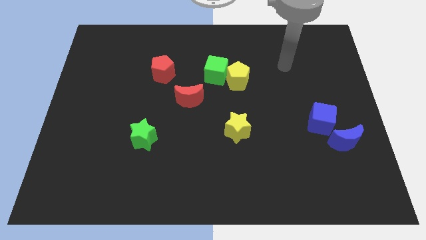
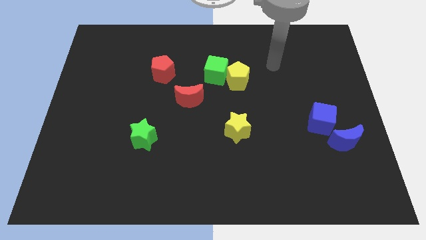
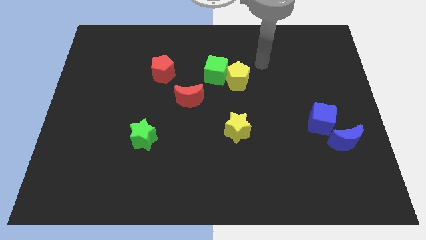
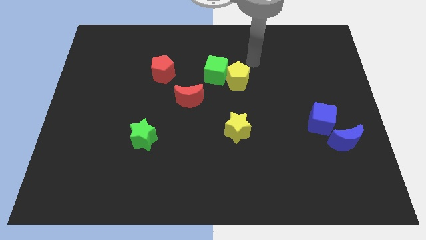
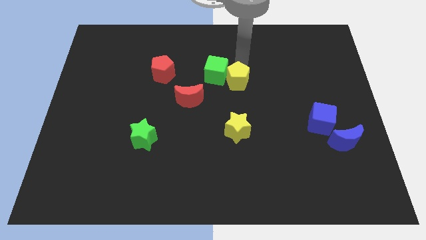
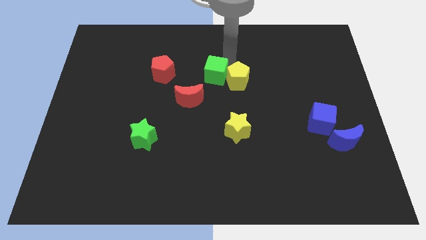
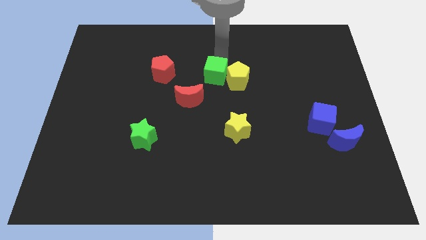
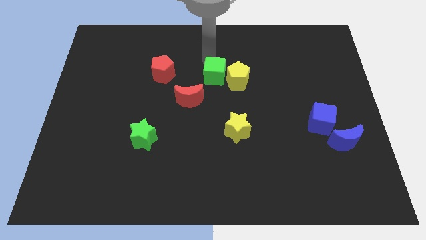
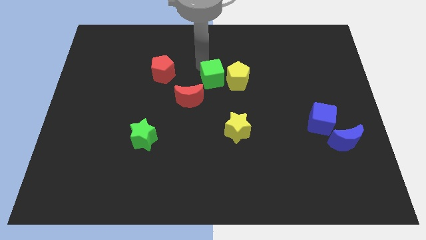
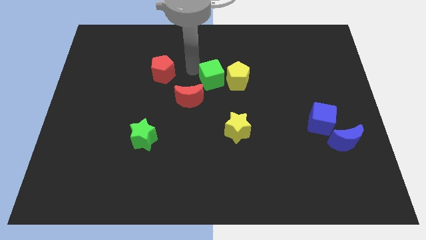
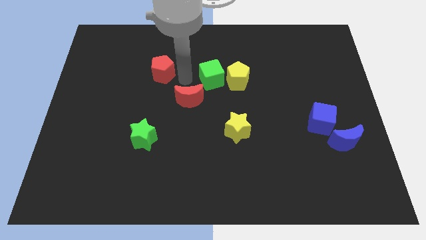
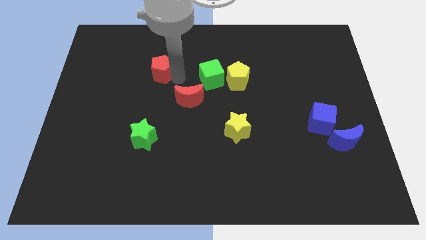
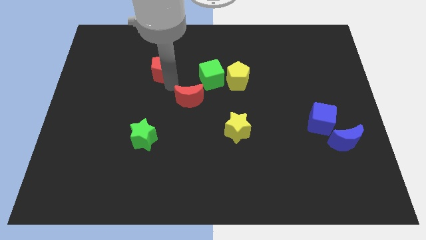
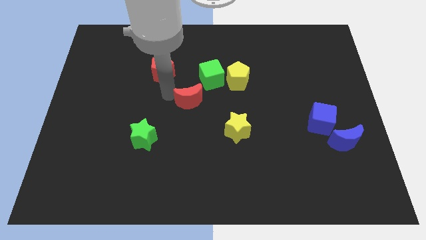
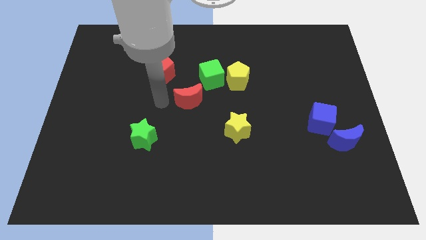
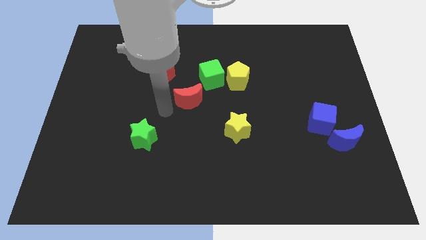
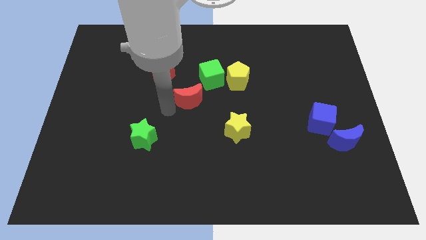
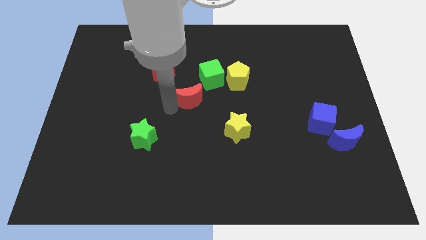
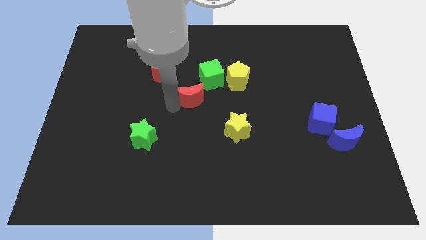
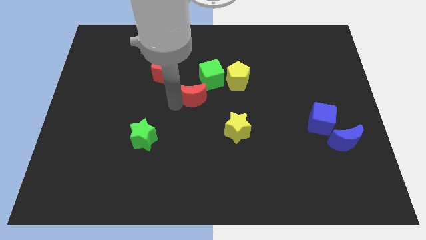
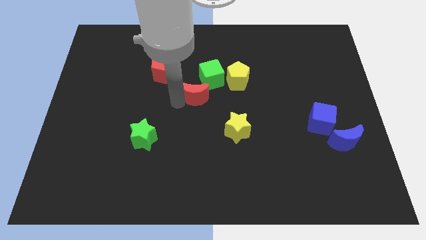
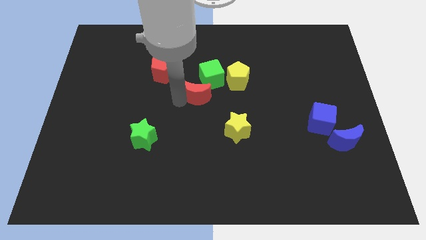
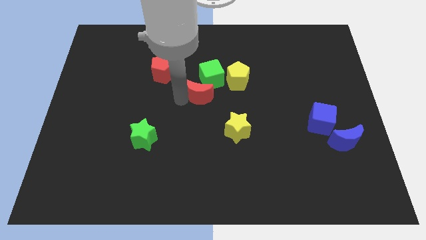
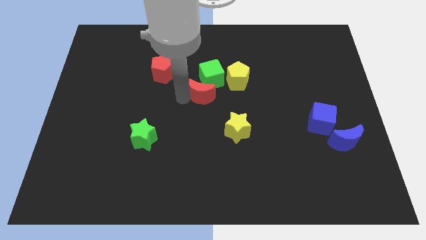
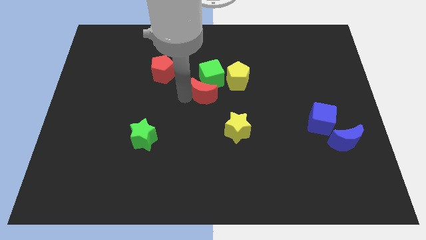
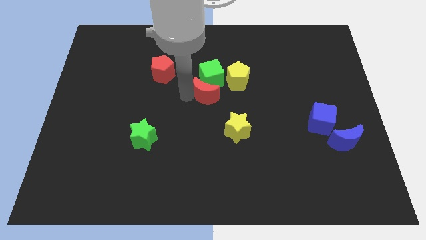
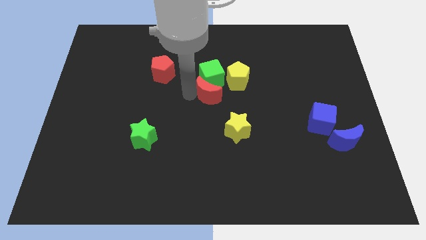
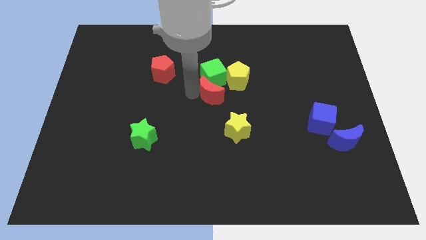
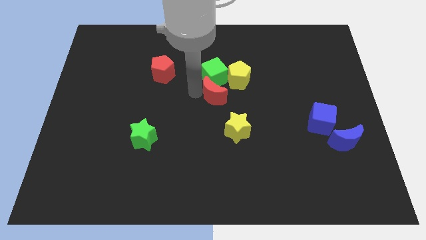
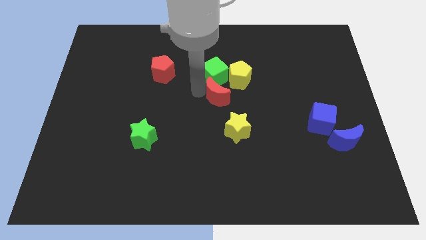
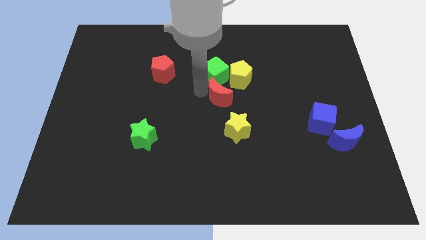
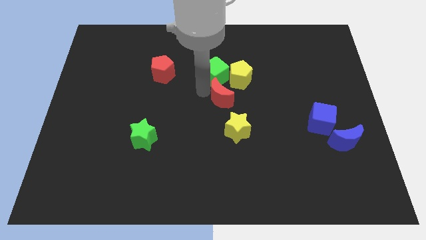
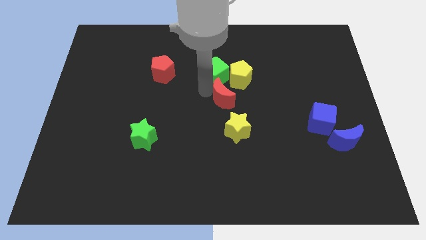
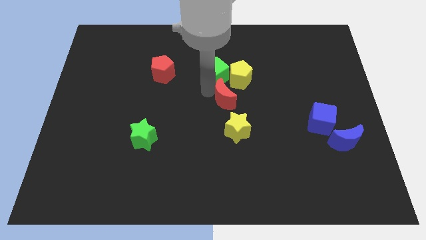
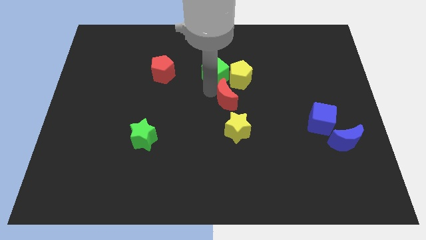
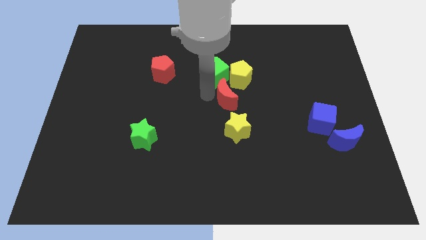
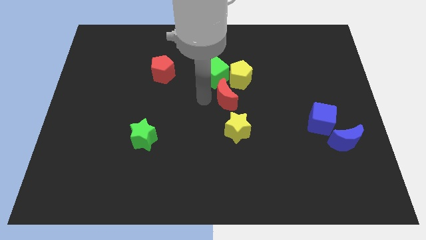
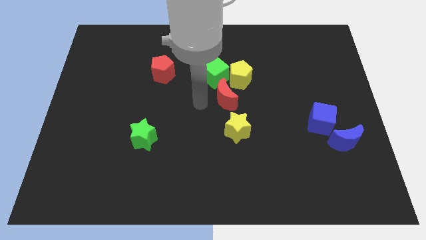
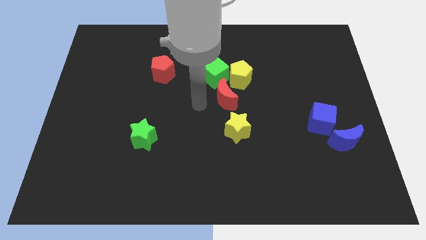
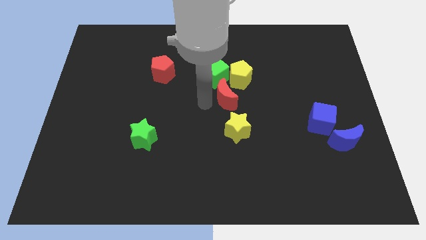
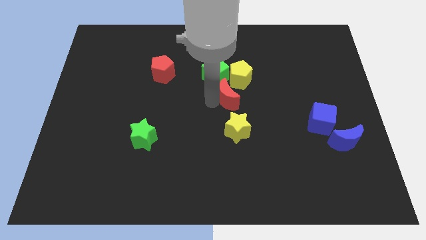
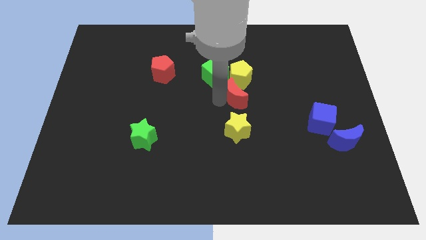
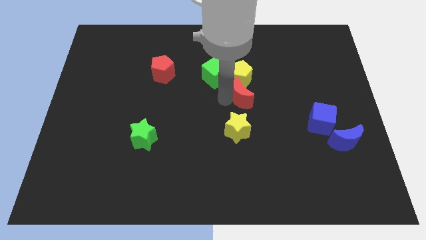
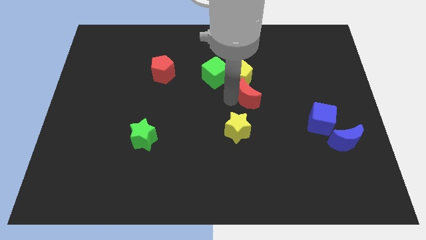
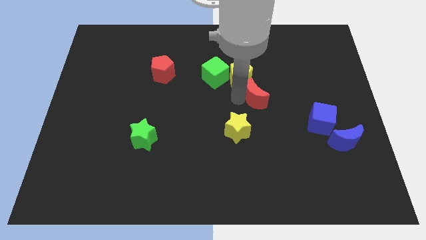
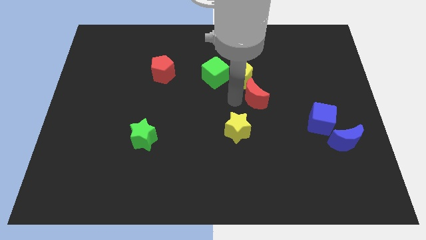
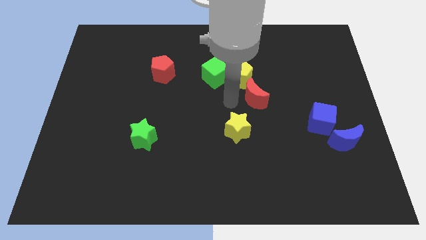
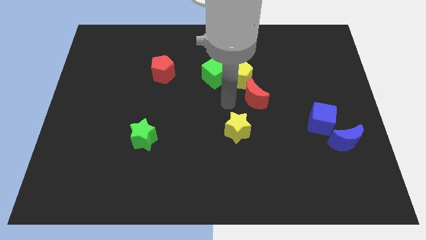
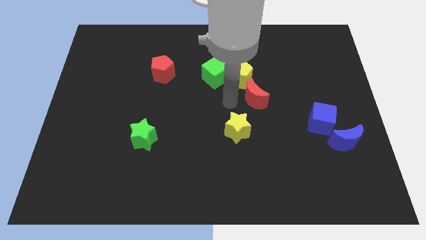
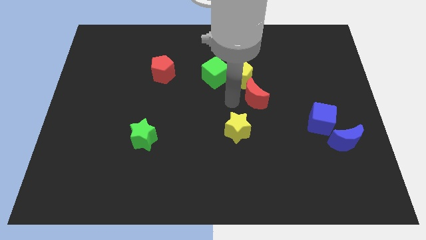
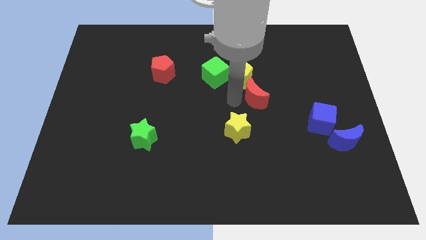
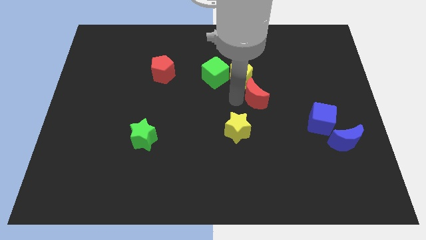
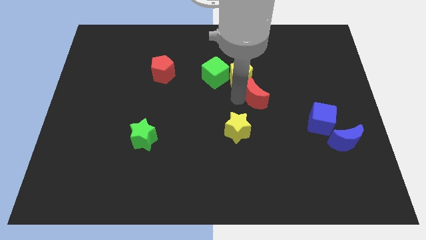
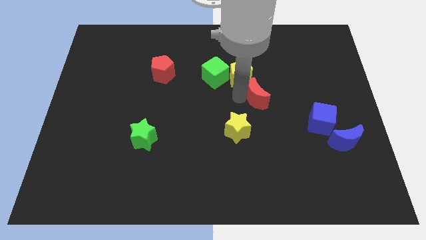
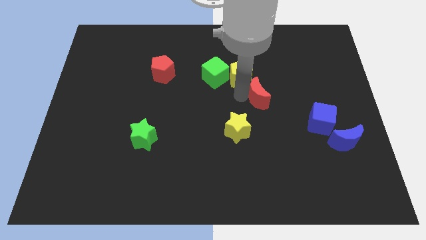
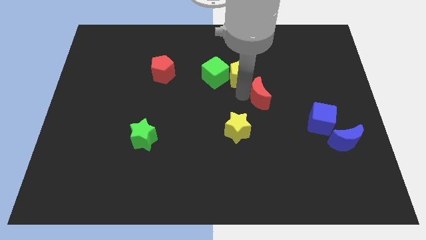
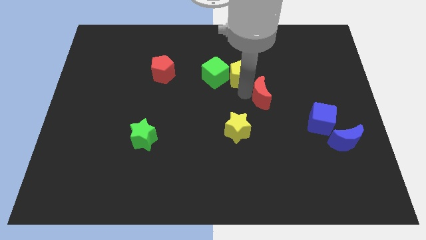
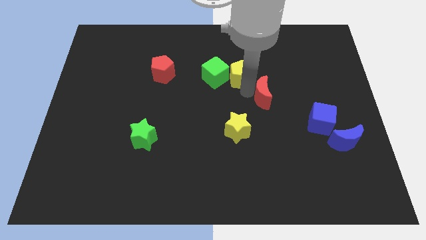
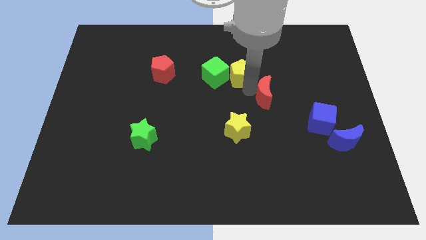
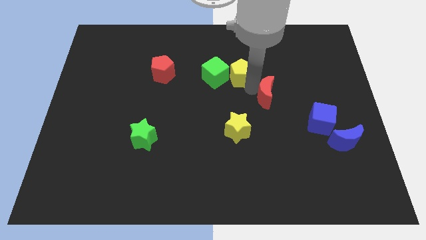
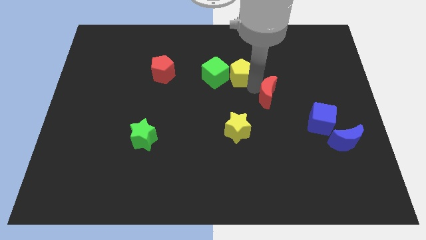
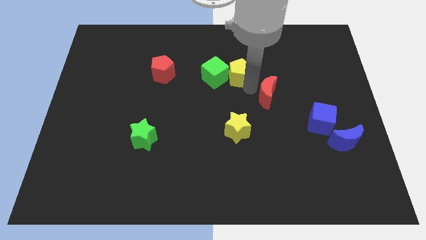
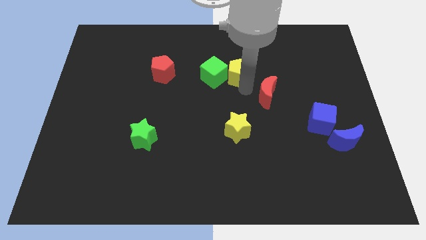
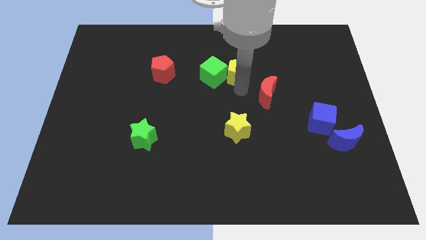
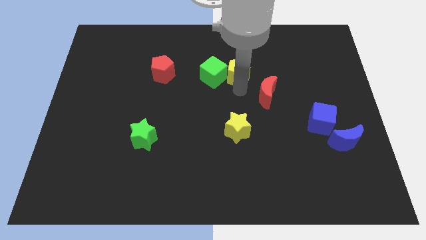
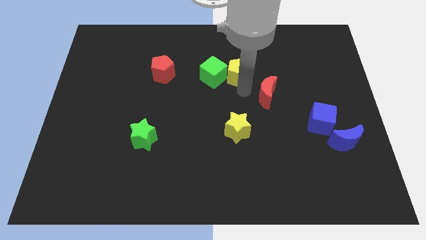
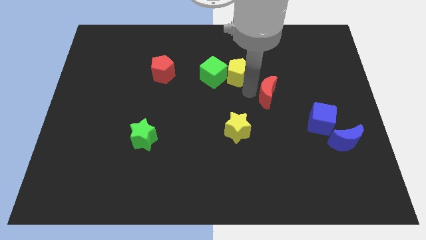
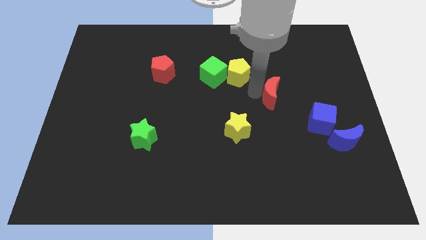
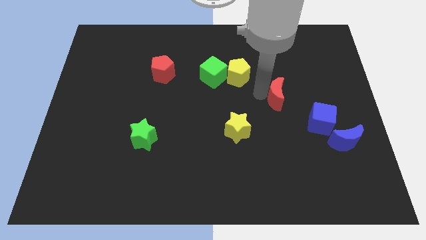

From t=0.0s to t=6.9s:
slide the red moon right

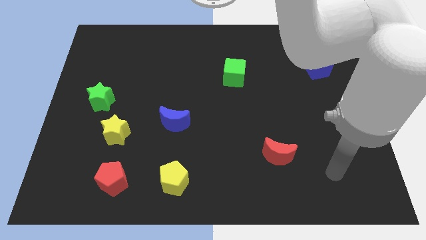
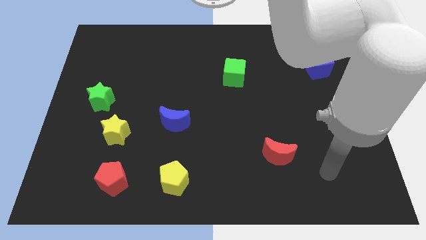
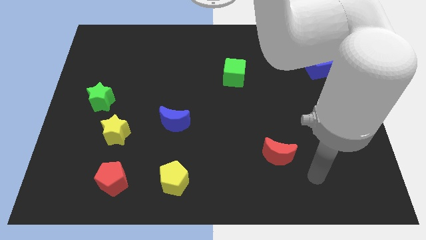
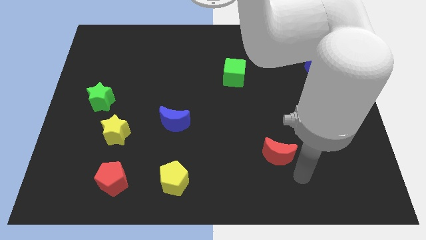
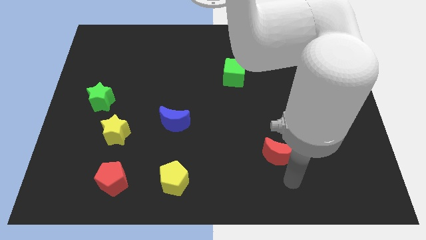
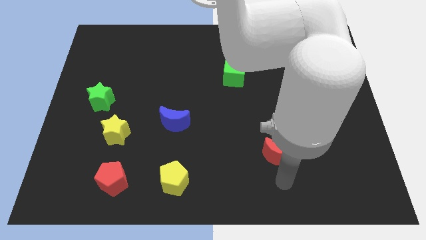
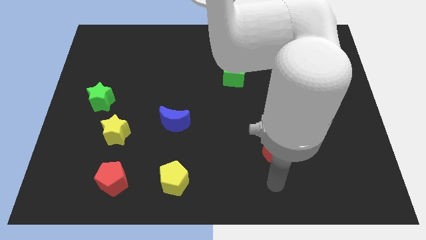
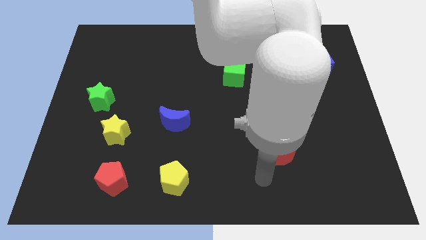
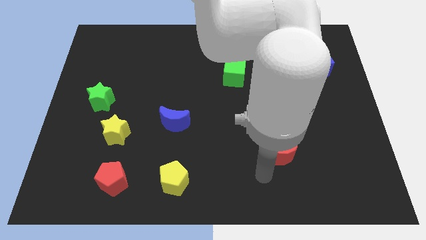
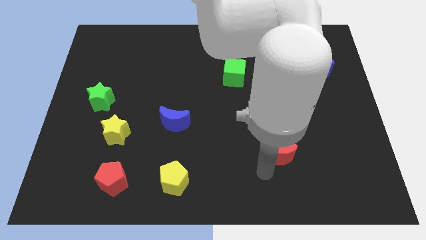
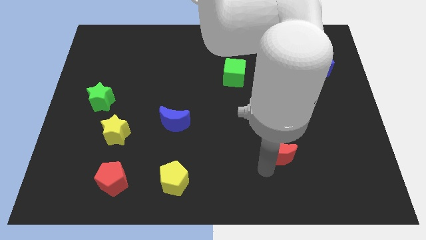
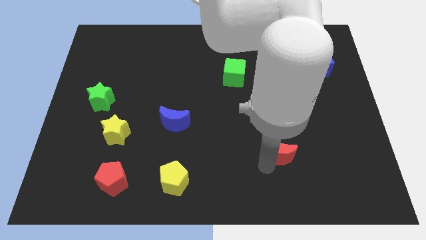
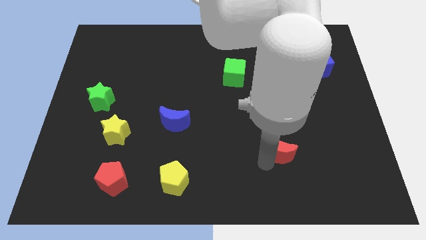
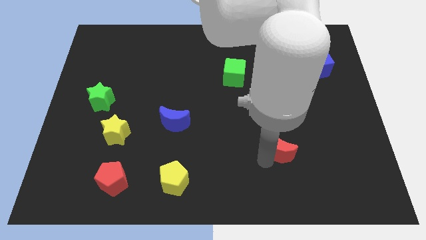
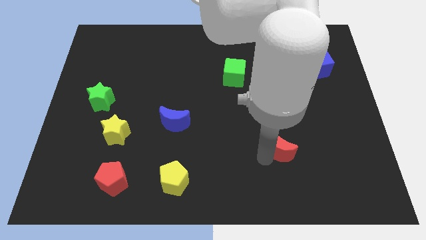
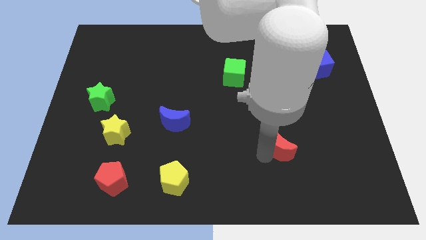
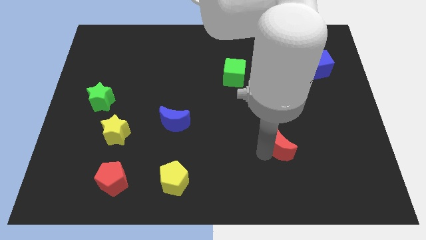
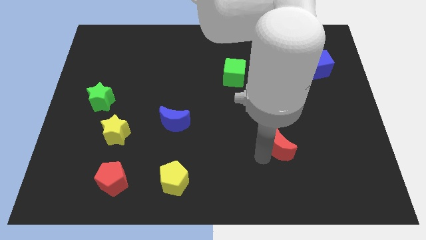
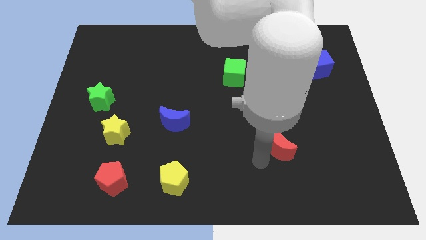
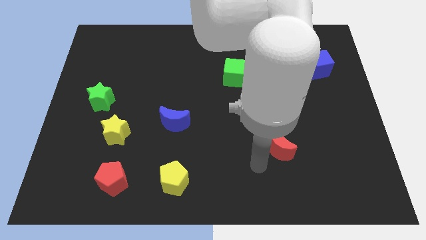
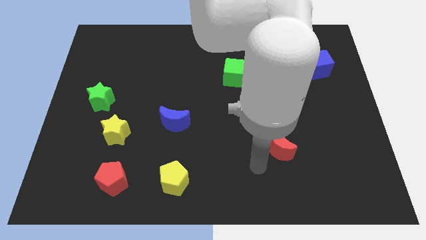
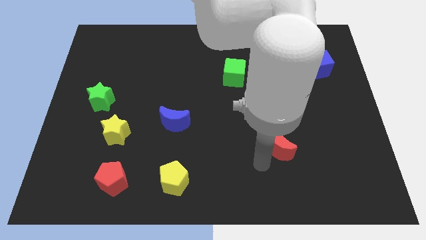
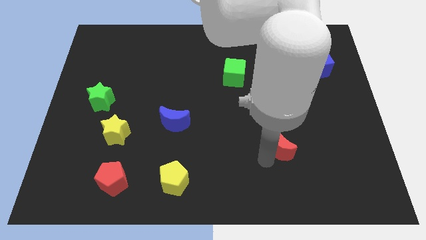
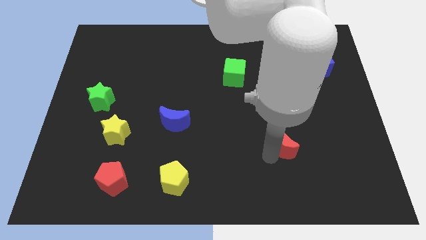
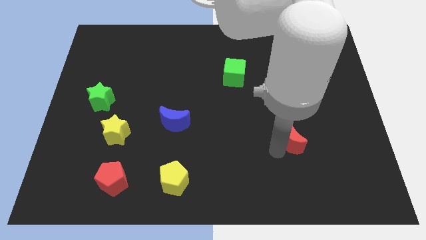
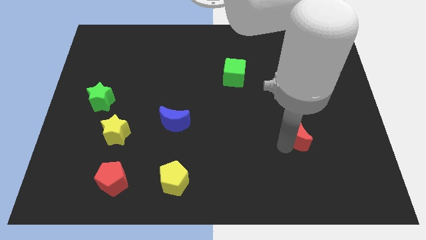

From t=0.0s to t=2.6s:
slightly slide the red moon upwards and then right
